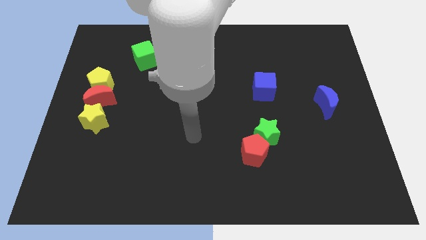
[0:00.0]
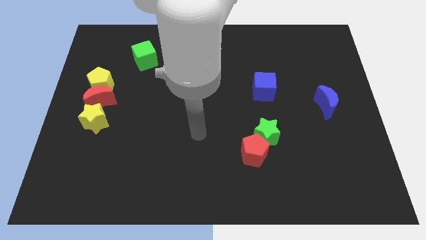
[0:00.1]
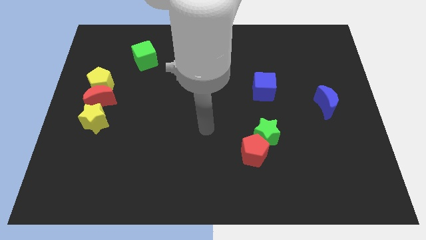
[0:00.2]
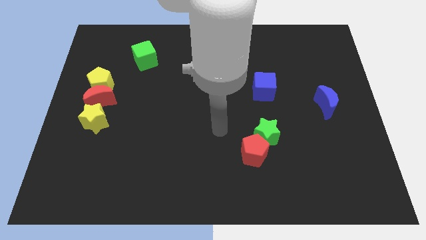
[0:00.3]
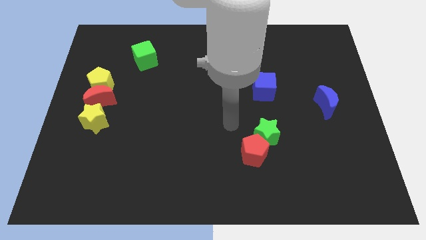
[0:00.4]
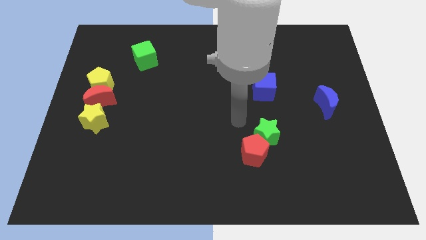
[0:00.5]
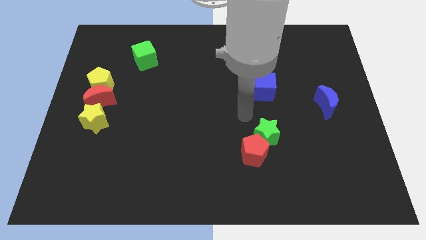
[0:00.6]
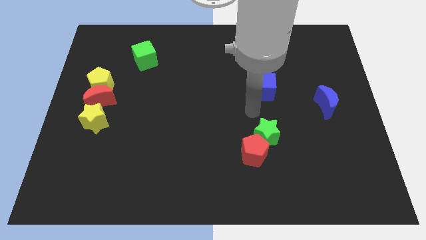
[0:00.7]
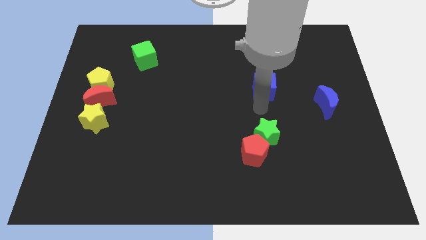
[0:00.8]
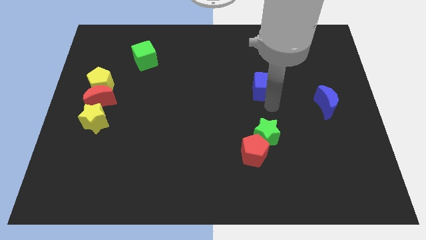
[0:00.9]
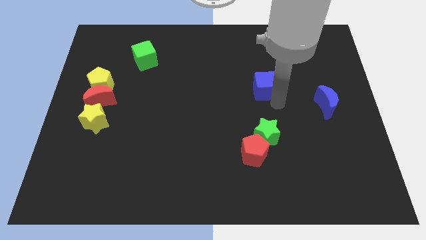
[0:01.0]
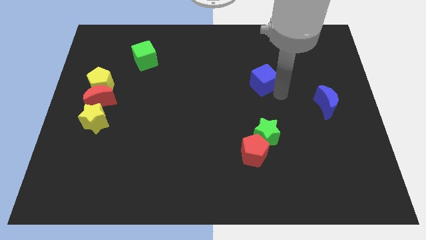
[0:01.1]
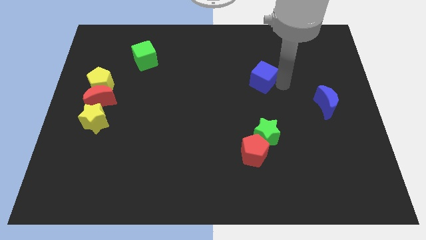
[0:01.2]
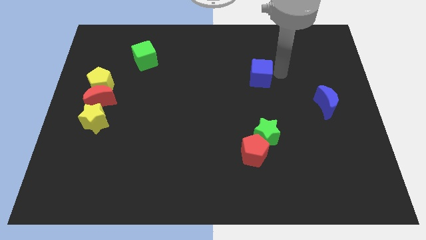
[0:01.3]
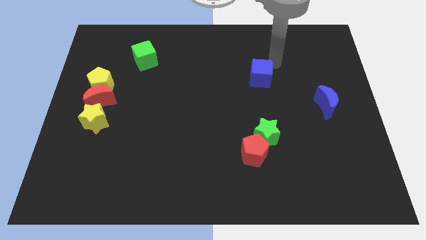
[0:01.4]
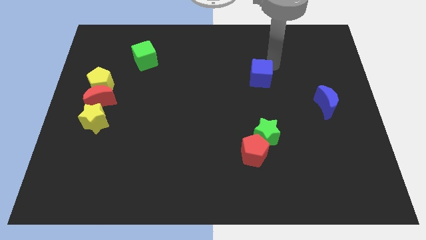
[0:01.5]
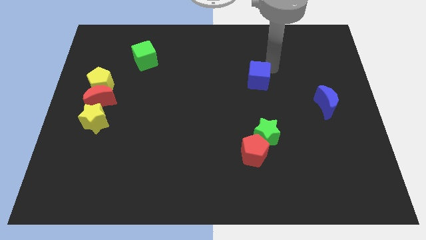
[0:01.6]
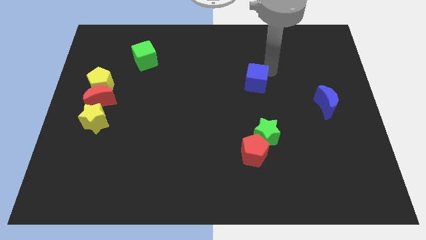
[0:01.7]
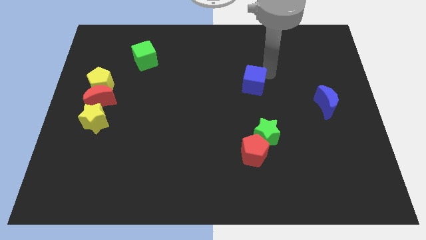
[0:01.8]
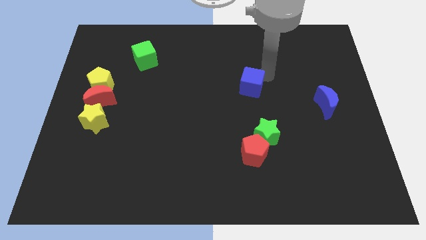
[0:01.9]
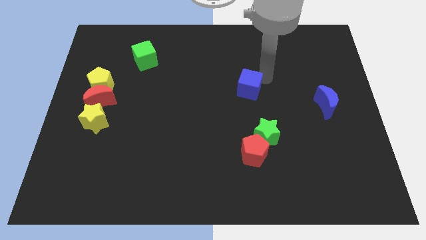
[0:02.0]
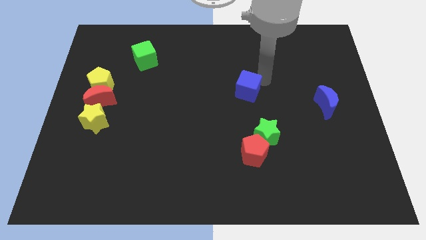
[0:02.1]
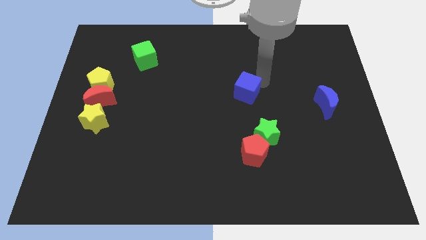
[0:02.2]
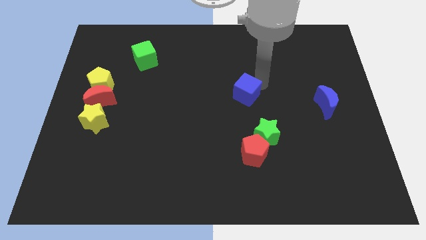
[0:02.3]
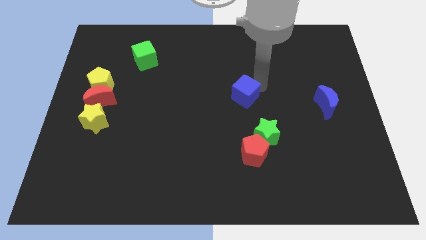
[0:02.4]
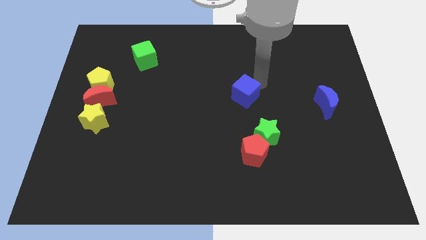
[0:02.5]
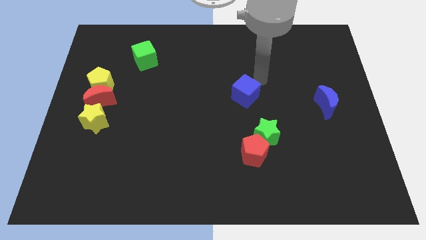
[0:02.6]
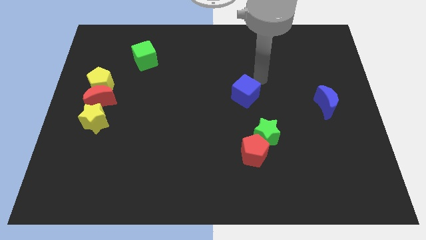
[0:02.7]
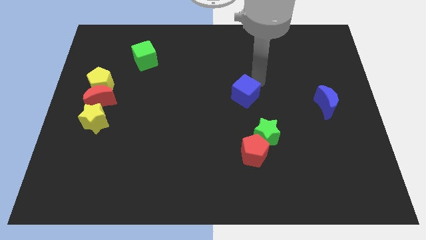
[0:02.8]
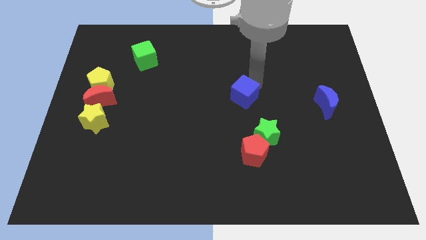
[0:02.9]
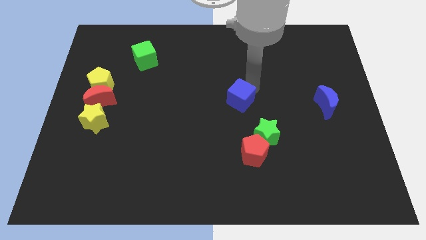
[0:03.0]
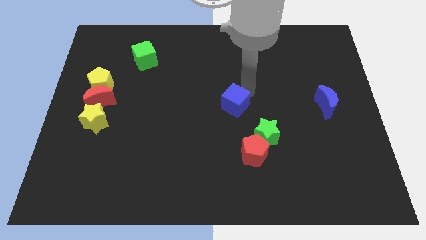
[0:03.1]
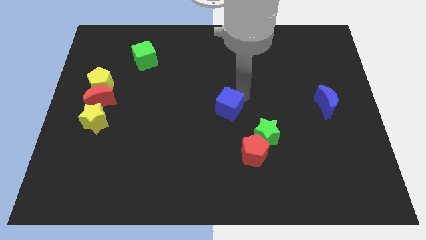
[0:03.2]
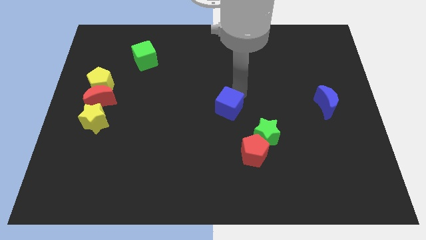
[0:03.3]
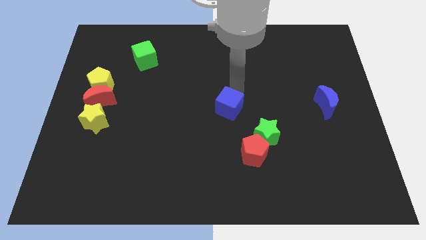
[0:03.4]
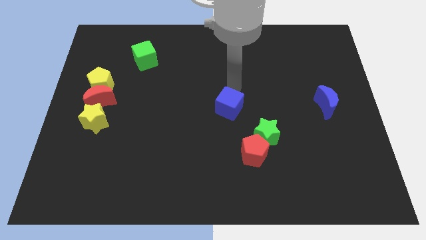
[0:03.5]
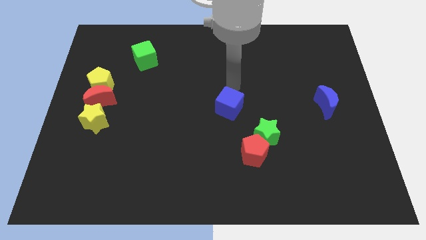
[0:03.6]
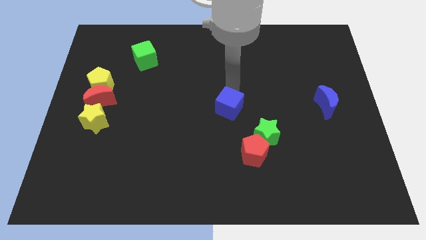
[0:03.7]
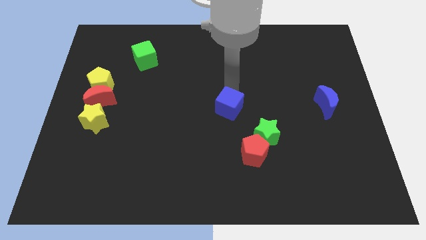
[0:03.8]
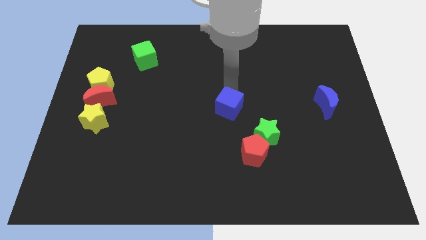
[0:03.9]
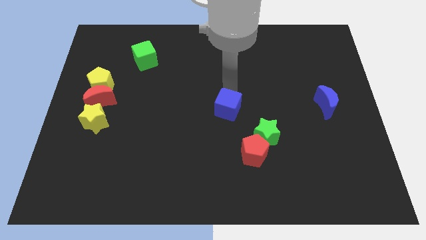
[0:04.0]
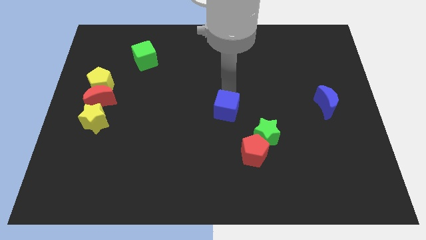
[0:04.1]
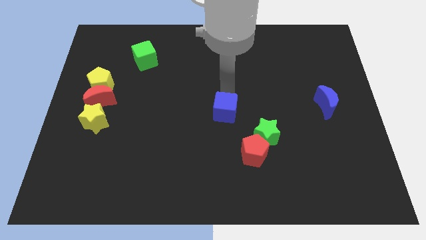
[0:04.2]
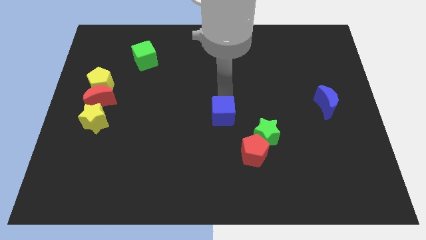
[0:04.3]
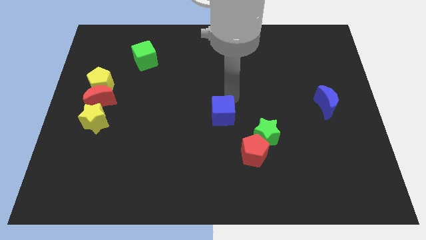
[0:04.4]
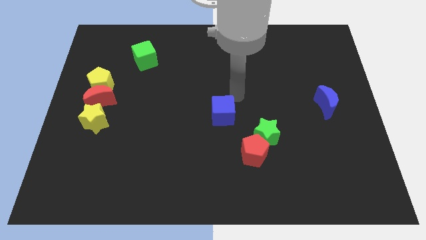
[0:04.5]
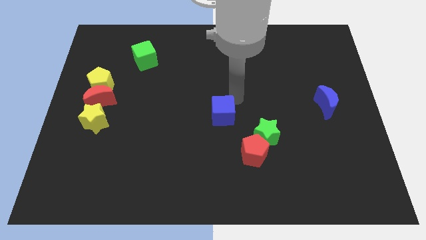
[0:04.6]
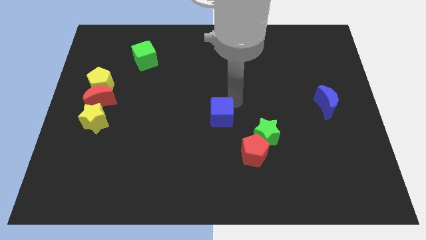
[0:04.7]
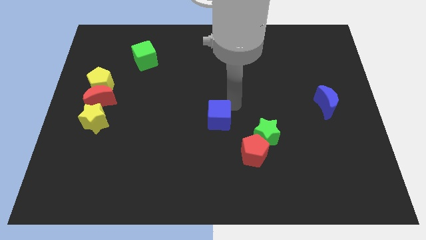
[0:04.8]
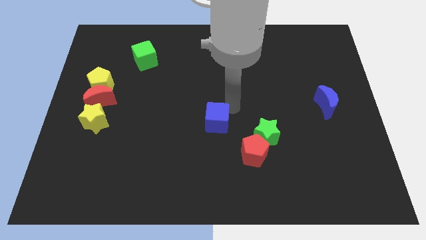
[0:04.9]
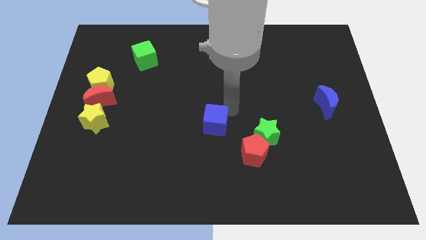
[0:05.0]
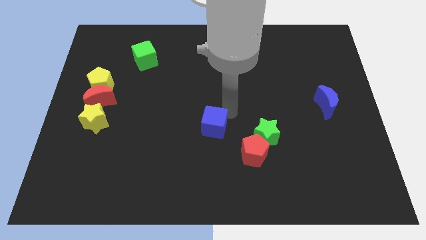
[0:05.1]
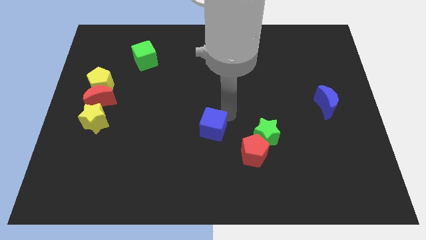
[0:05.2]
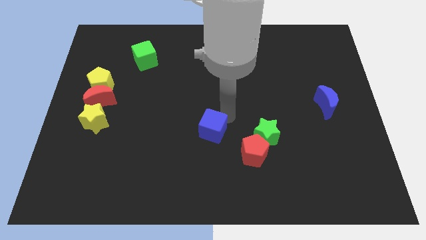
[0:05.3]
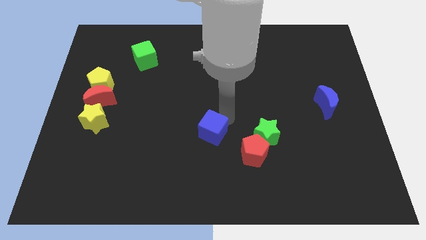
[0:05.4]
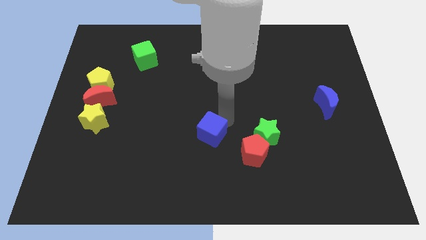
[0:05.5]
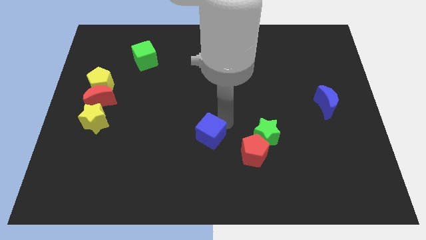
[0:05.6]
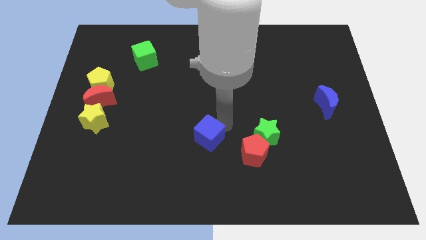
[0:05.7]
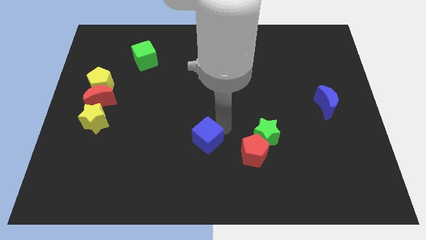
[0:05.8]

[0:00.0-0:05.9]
slide the blue cube downwards and then left

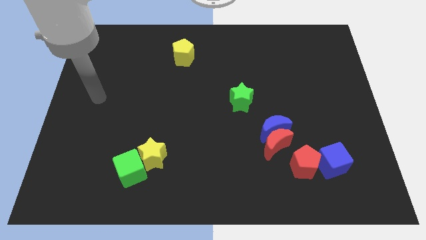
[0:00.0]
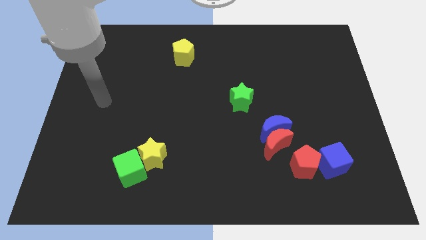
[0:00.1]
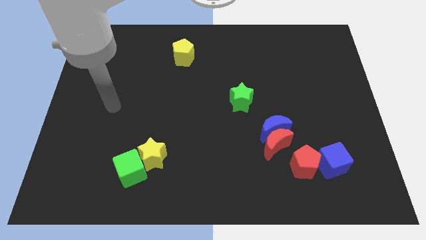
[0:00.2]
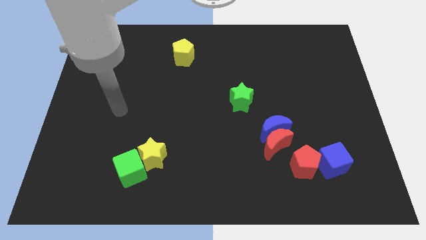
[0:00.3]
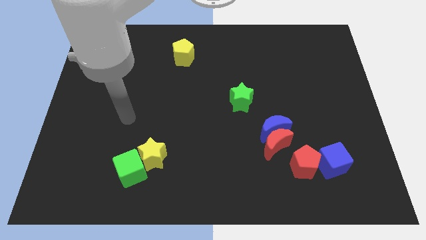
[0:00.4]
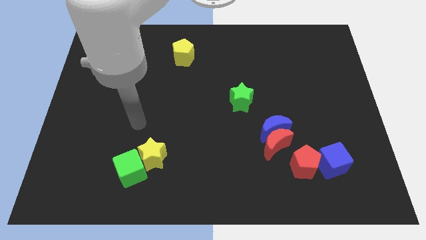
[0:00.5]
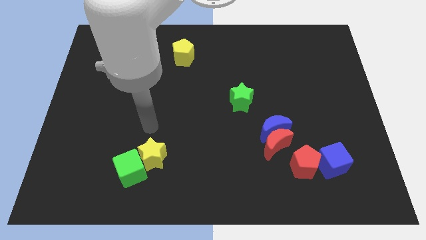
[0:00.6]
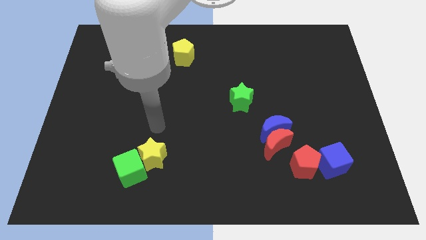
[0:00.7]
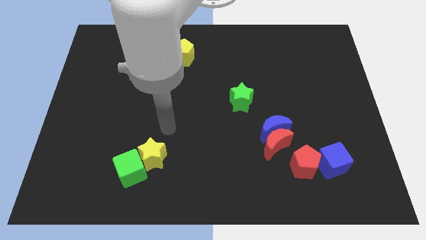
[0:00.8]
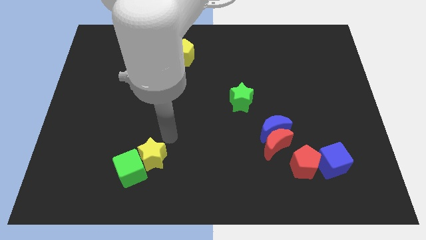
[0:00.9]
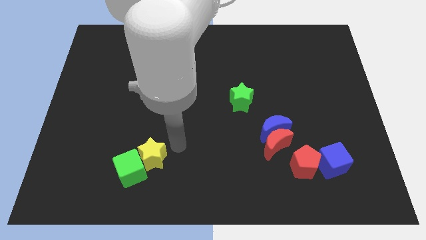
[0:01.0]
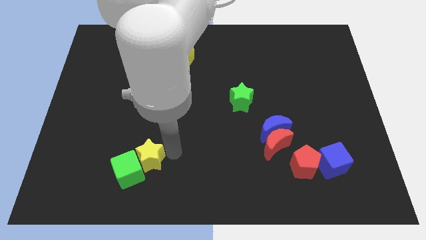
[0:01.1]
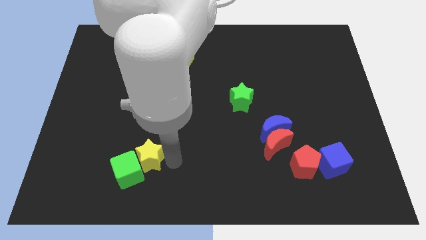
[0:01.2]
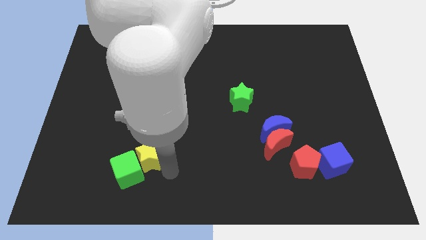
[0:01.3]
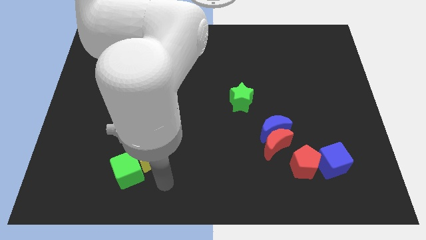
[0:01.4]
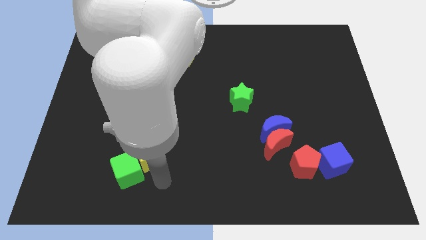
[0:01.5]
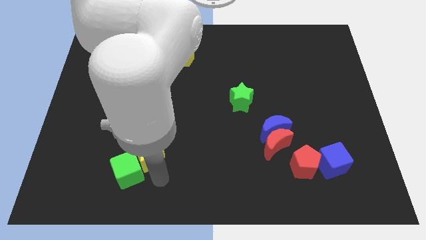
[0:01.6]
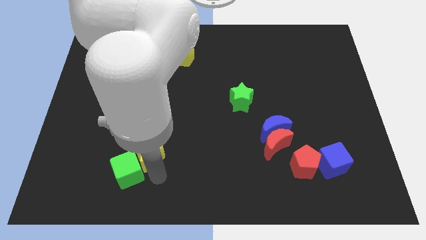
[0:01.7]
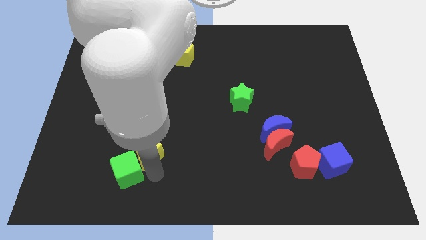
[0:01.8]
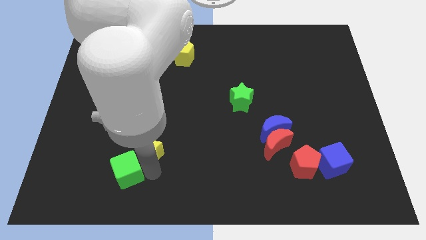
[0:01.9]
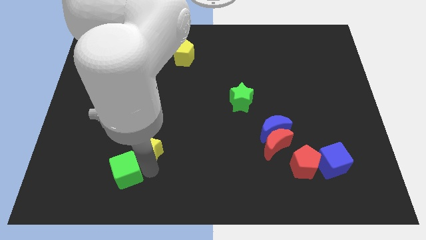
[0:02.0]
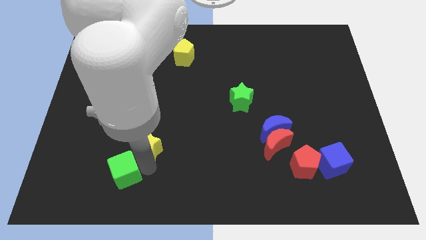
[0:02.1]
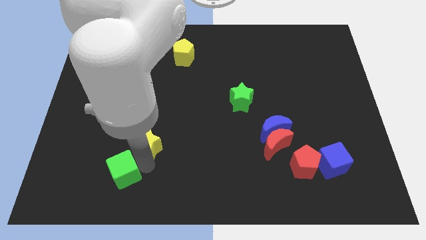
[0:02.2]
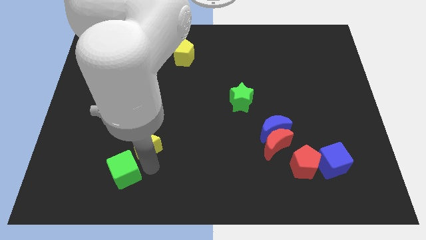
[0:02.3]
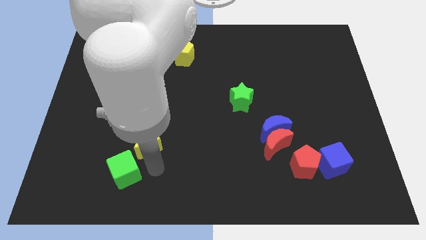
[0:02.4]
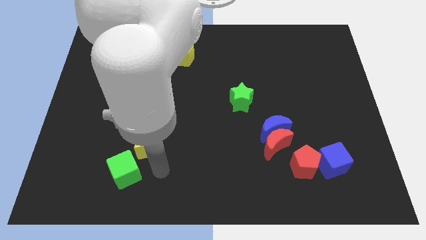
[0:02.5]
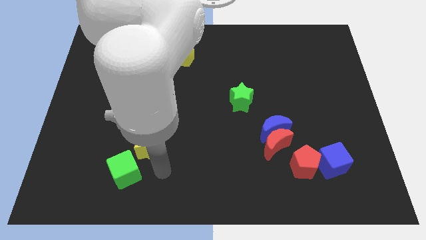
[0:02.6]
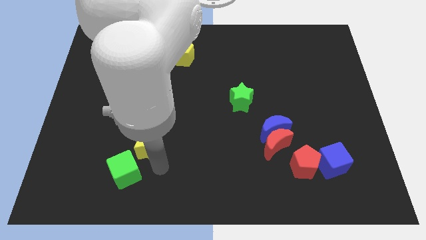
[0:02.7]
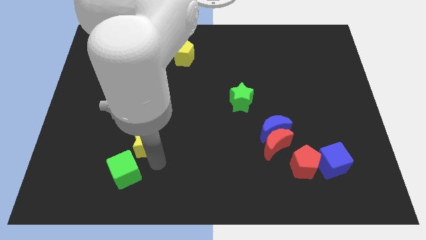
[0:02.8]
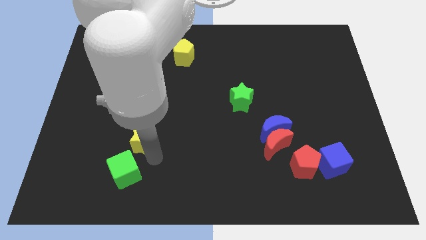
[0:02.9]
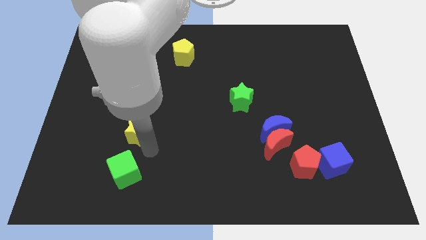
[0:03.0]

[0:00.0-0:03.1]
move the yellow star a little up and then left
